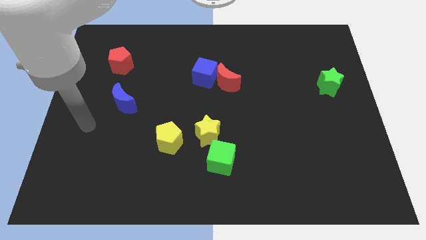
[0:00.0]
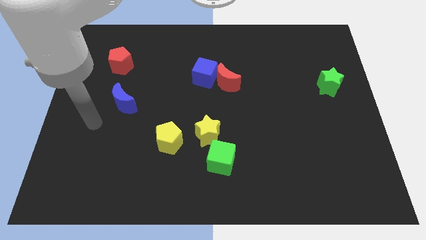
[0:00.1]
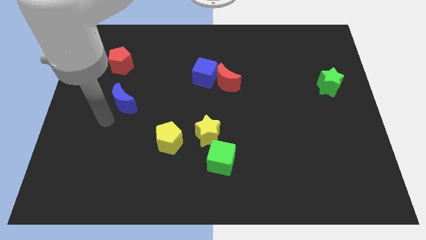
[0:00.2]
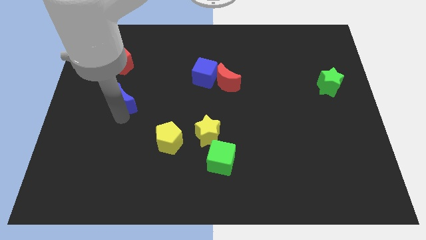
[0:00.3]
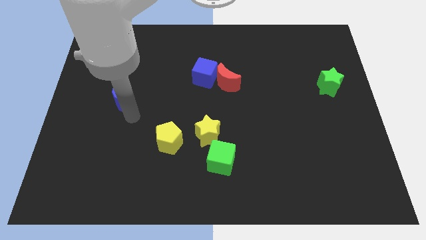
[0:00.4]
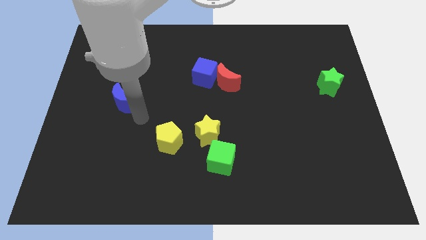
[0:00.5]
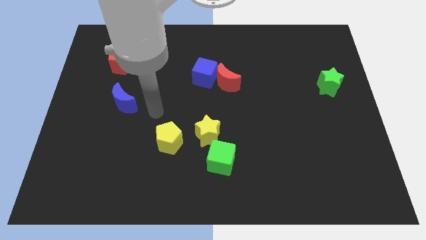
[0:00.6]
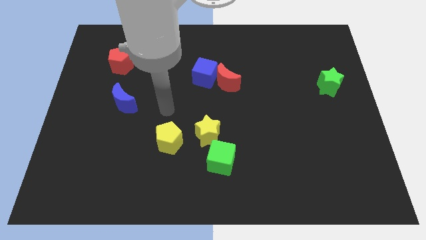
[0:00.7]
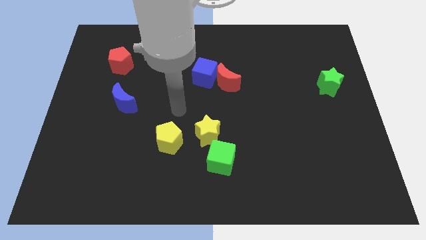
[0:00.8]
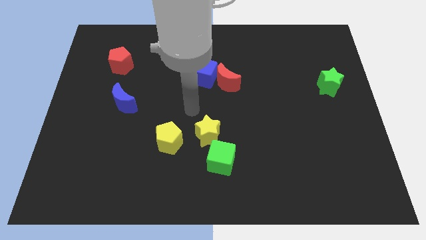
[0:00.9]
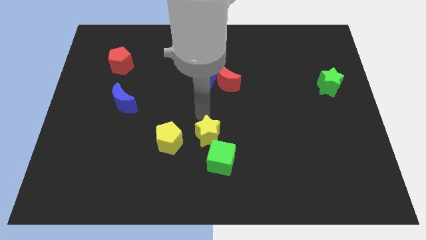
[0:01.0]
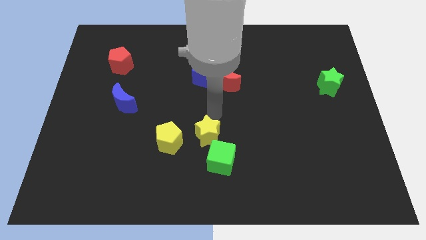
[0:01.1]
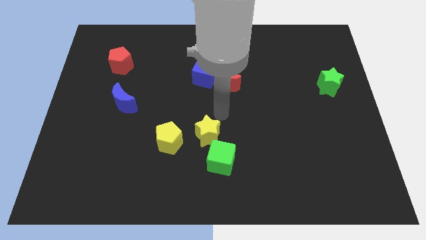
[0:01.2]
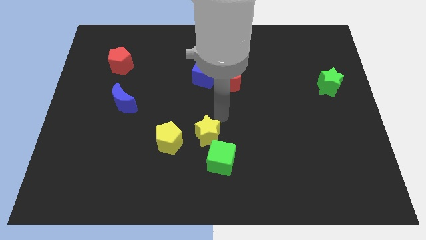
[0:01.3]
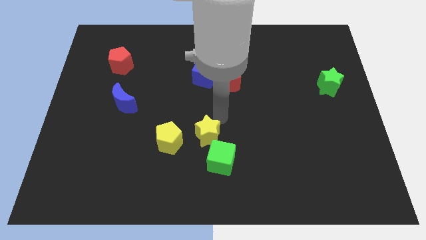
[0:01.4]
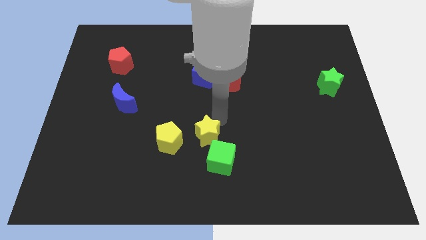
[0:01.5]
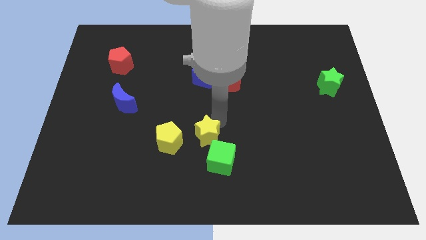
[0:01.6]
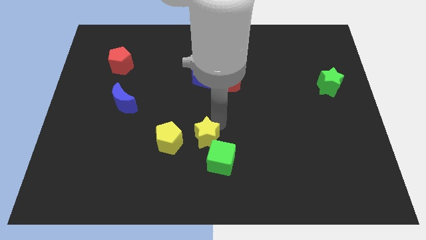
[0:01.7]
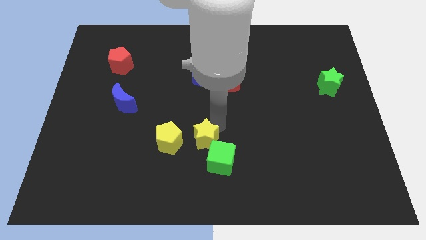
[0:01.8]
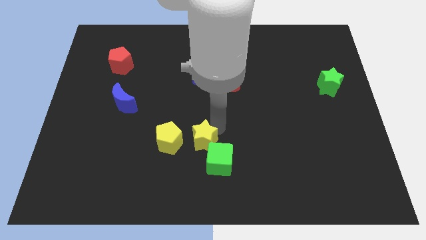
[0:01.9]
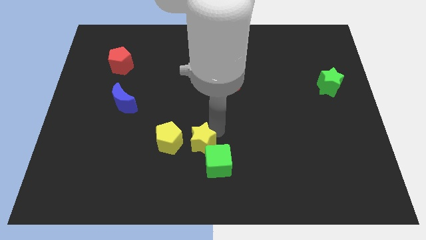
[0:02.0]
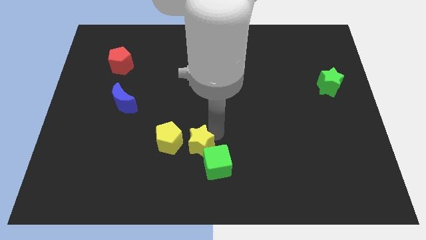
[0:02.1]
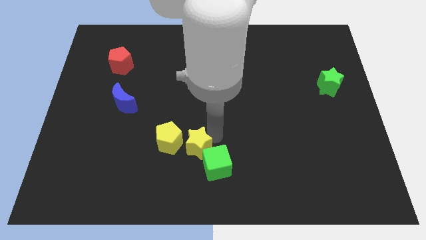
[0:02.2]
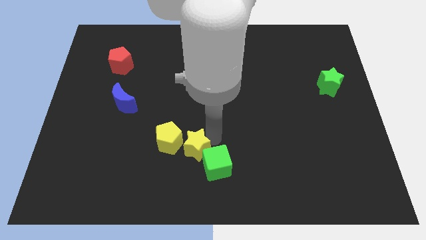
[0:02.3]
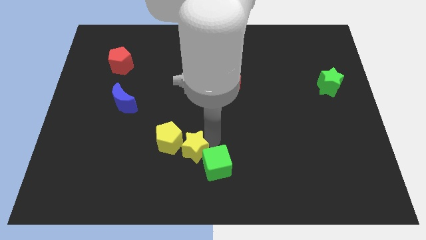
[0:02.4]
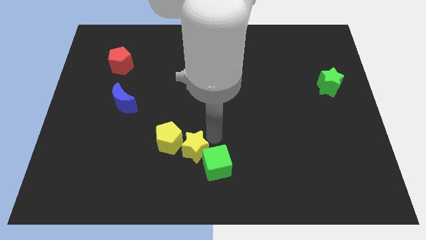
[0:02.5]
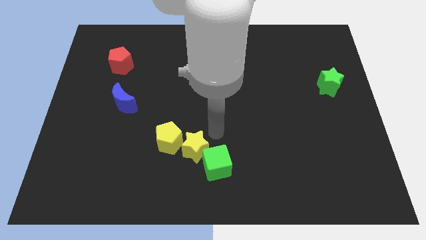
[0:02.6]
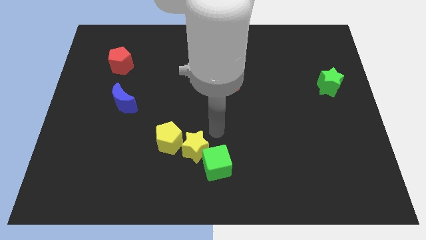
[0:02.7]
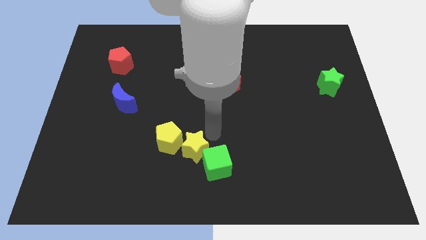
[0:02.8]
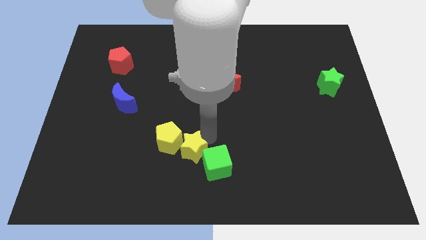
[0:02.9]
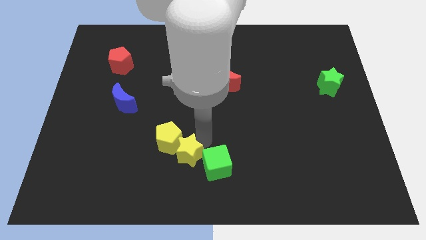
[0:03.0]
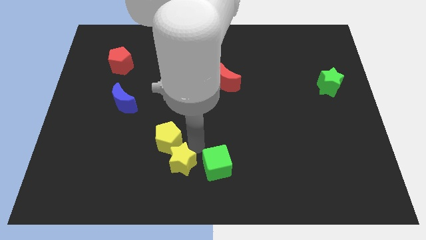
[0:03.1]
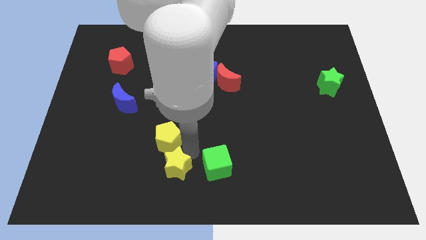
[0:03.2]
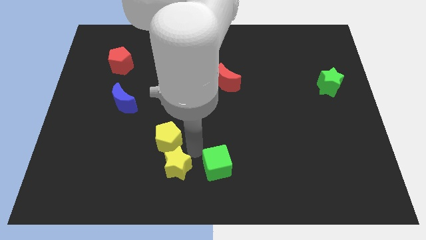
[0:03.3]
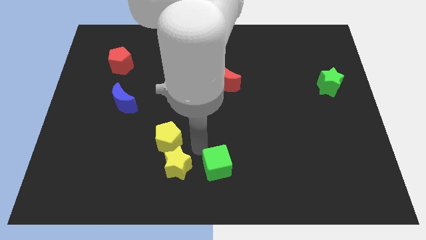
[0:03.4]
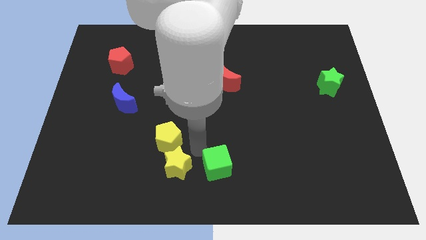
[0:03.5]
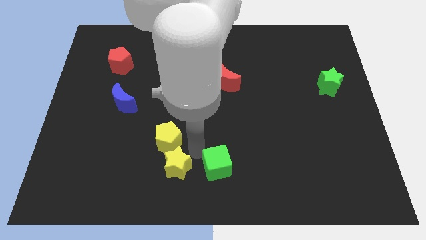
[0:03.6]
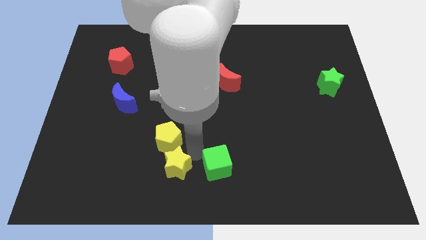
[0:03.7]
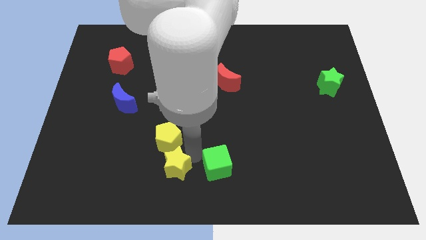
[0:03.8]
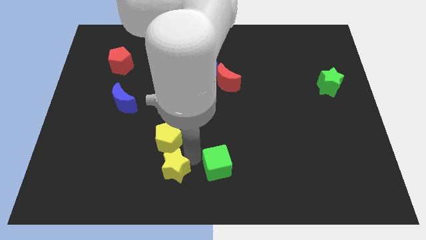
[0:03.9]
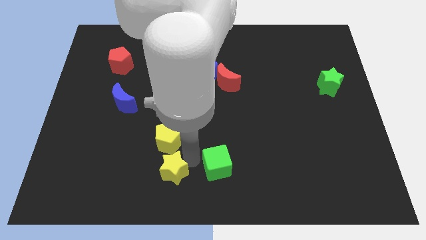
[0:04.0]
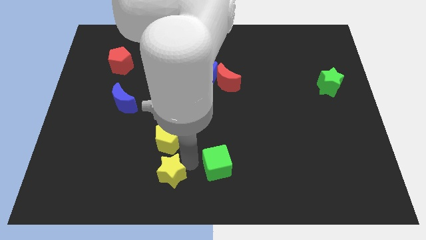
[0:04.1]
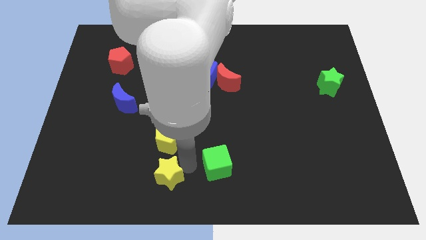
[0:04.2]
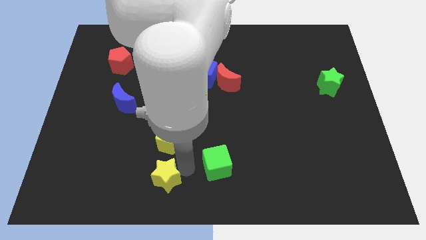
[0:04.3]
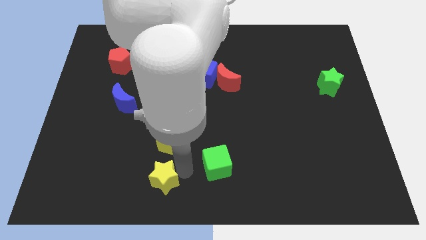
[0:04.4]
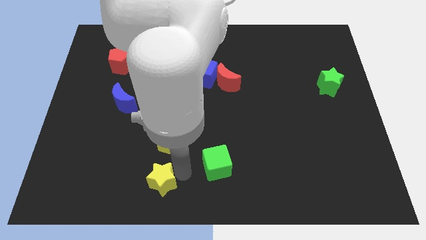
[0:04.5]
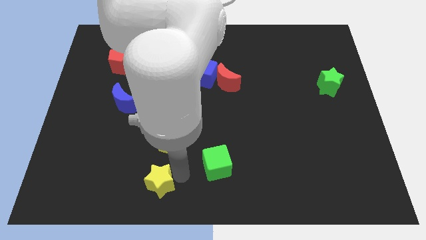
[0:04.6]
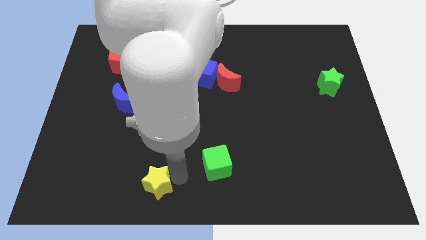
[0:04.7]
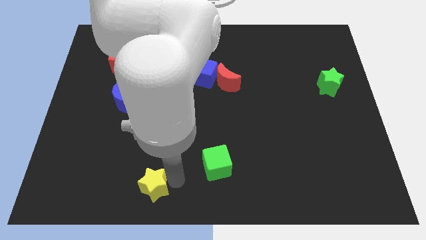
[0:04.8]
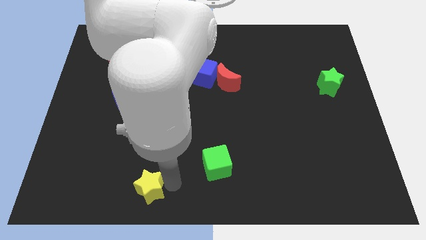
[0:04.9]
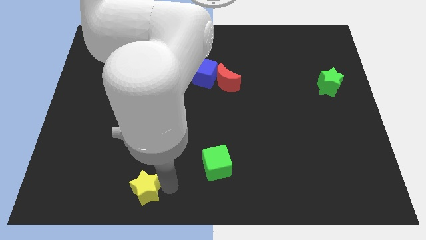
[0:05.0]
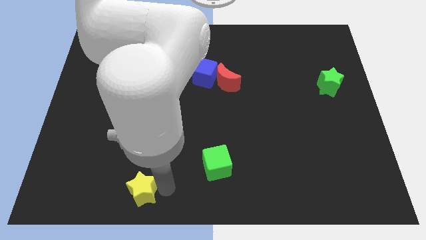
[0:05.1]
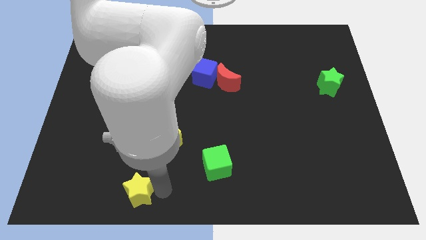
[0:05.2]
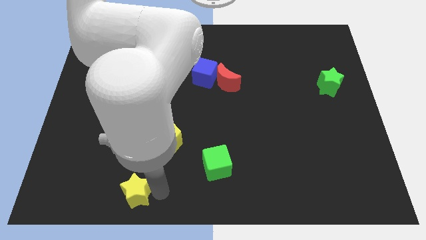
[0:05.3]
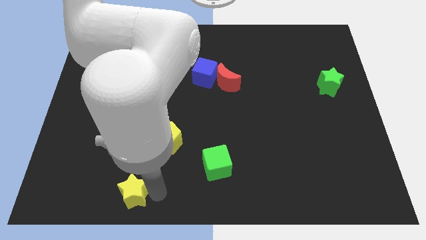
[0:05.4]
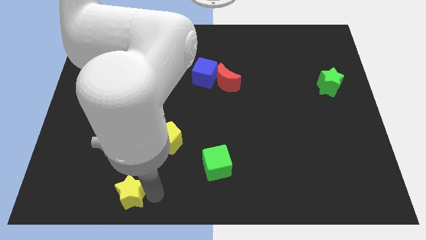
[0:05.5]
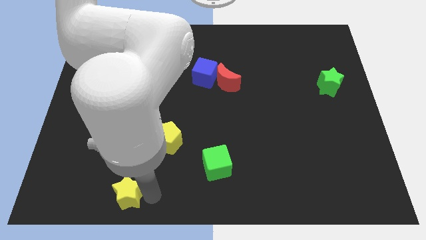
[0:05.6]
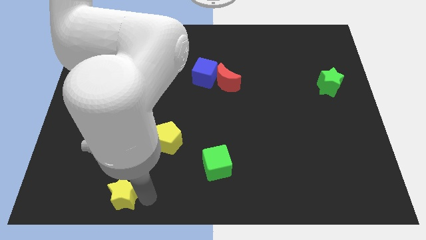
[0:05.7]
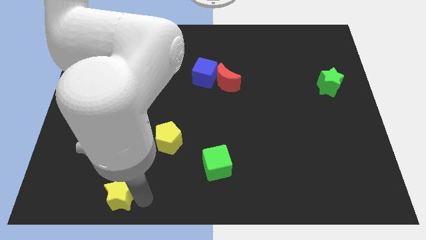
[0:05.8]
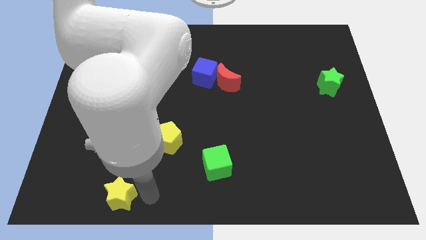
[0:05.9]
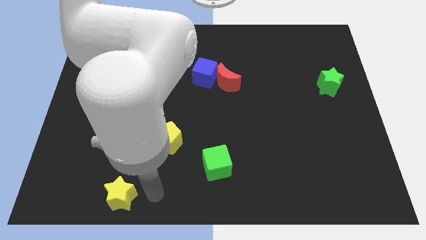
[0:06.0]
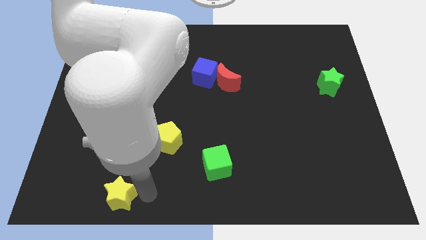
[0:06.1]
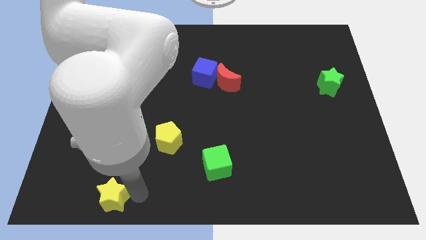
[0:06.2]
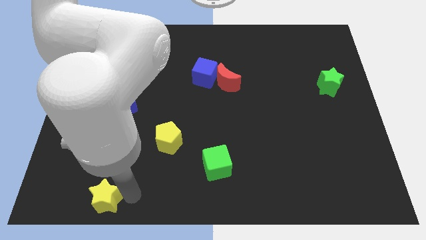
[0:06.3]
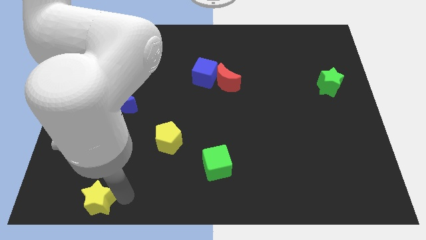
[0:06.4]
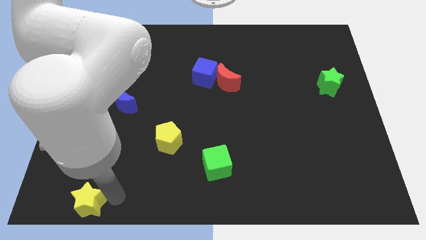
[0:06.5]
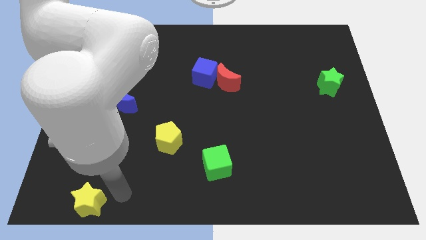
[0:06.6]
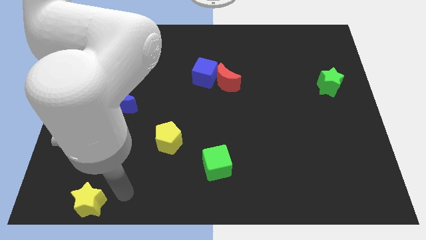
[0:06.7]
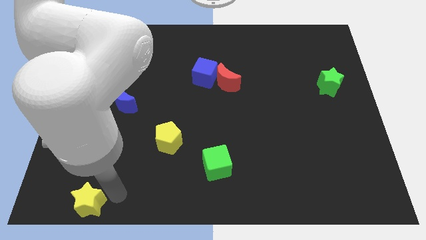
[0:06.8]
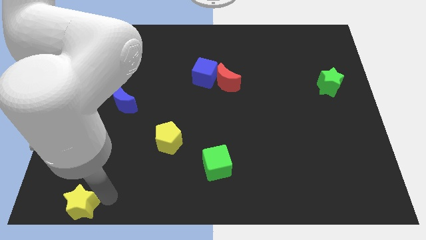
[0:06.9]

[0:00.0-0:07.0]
put the yellow star to the bottom left
